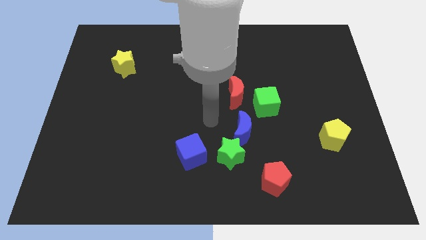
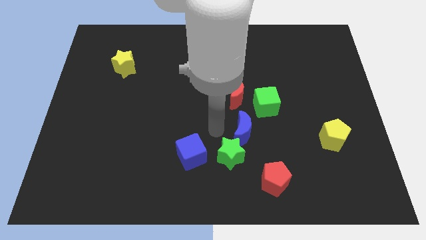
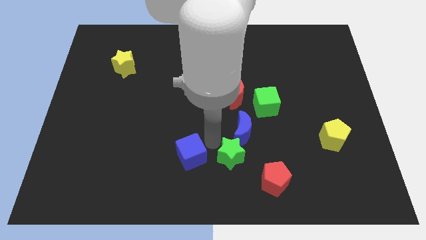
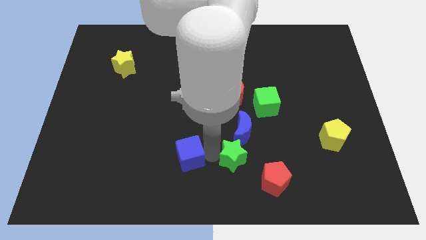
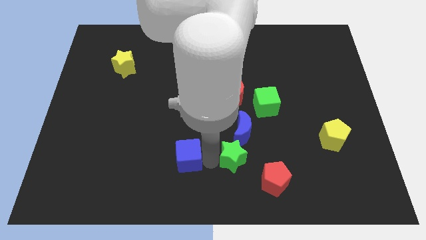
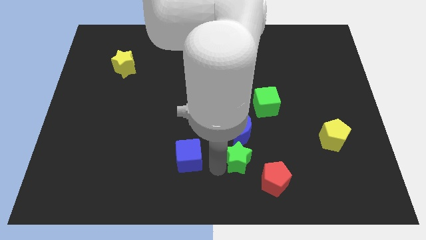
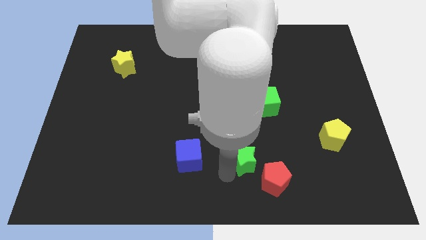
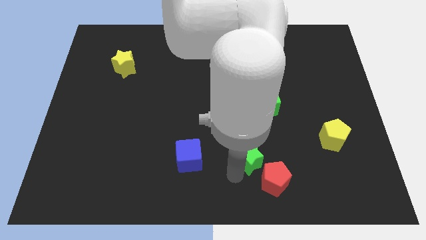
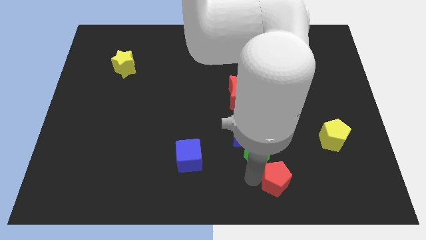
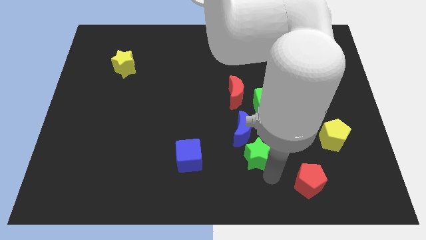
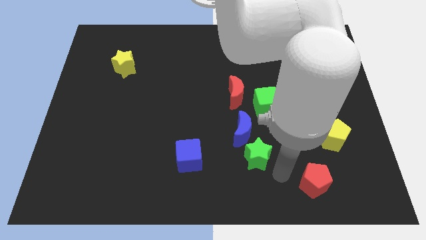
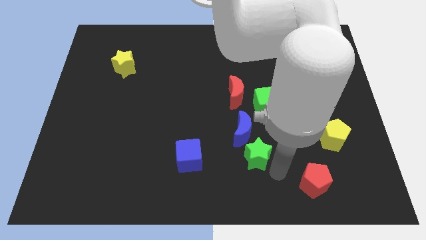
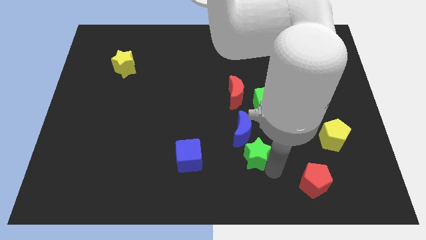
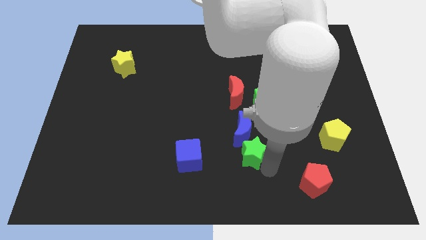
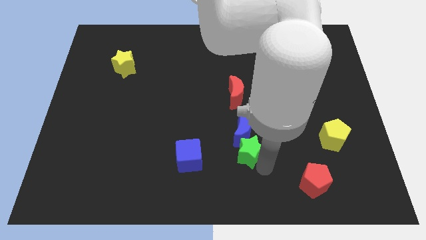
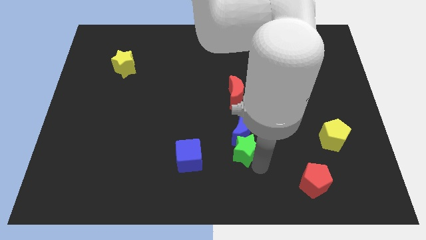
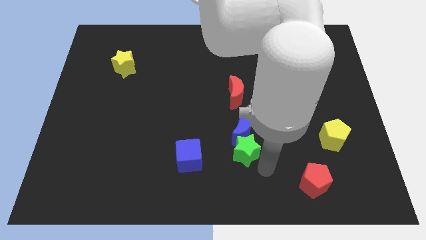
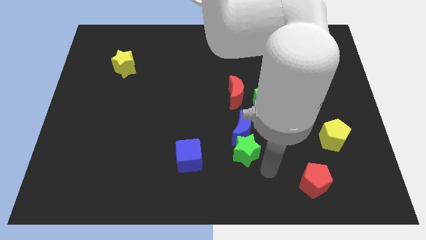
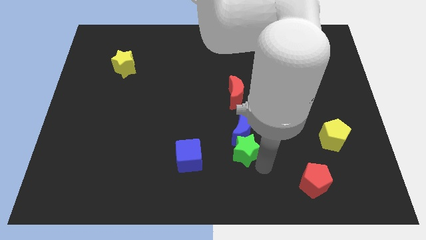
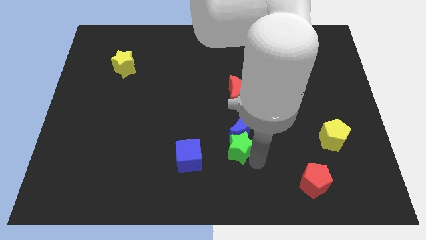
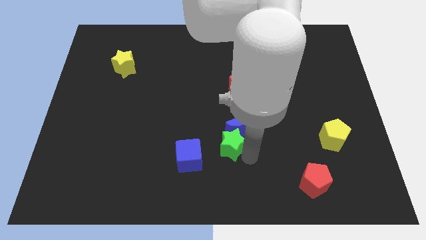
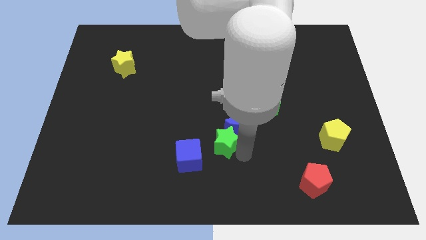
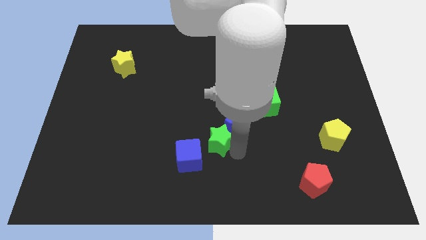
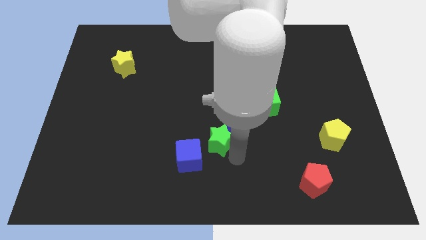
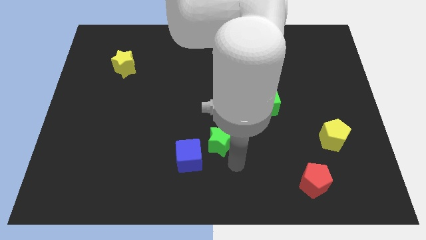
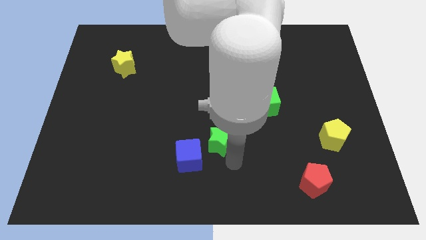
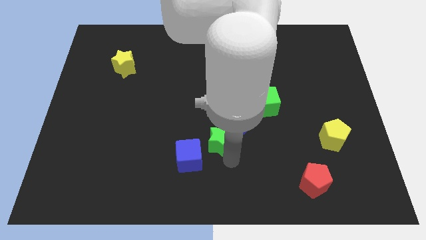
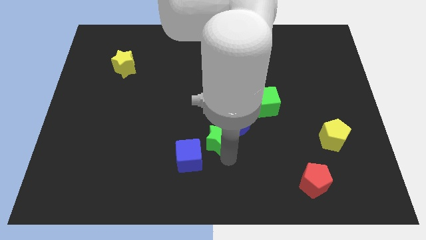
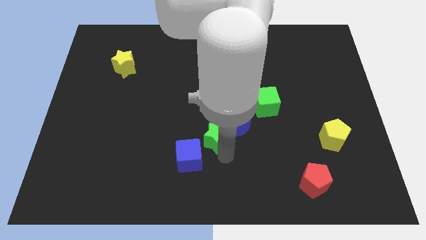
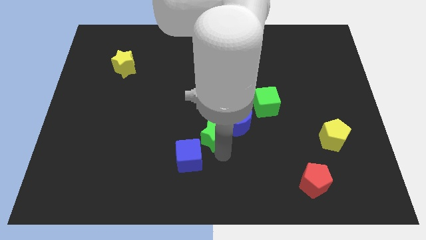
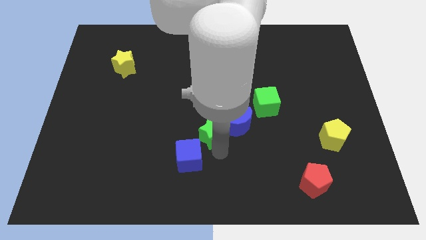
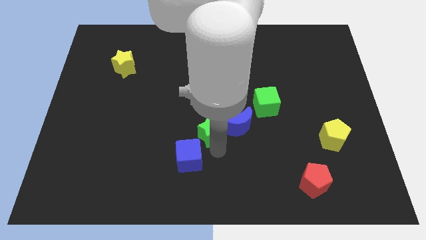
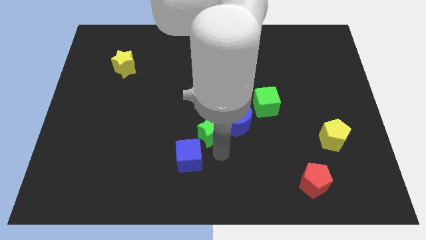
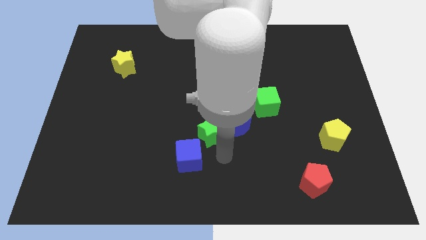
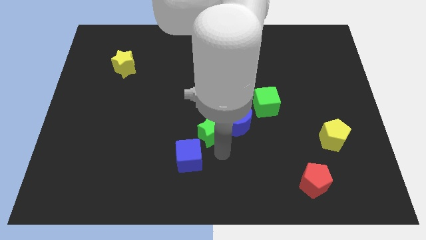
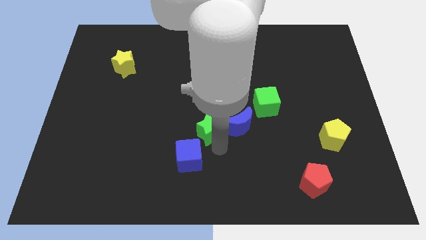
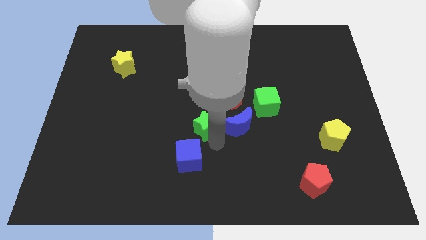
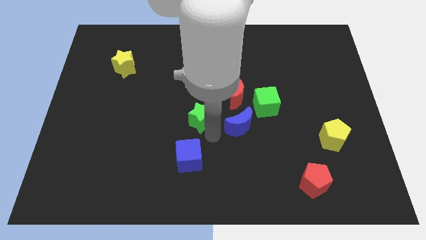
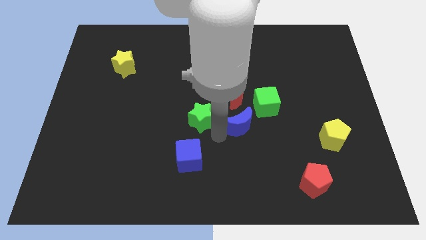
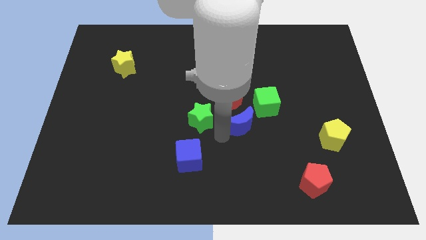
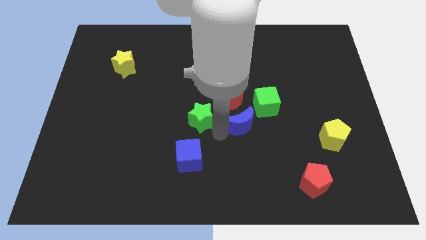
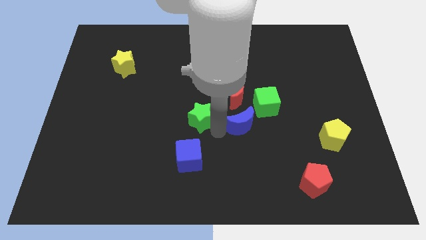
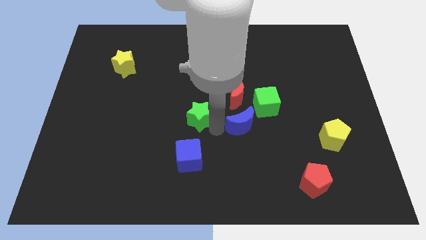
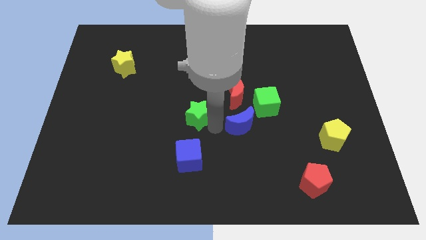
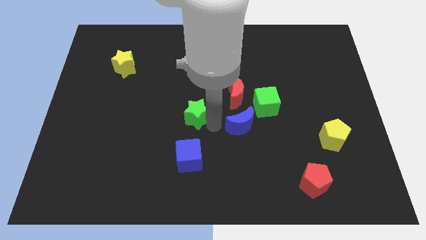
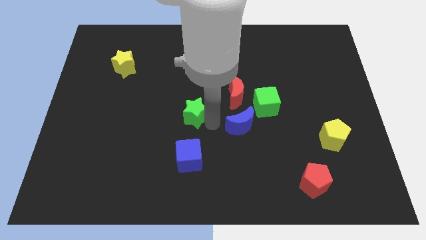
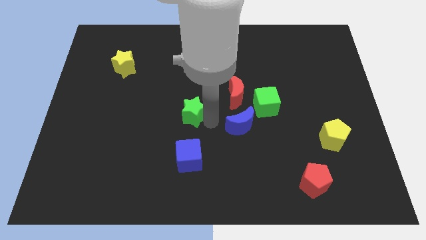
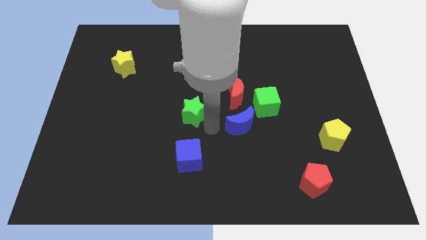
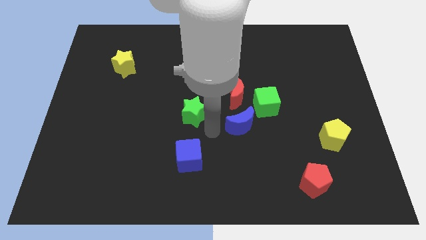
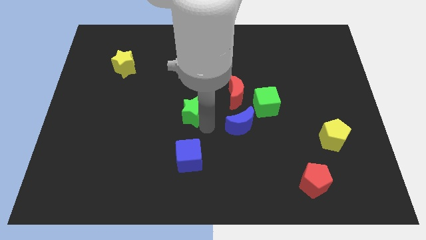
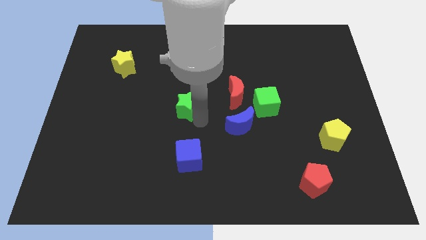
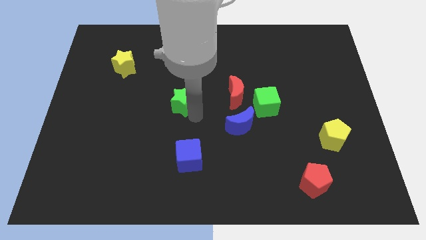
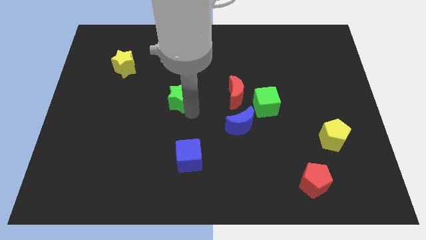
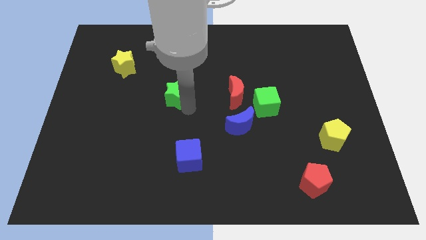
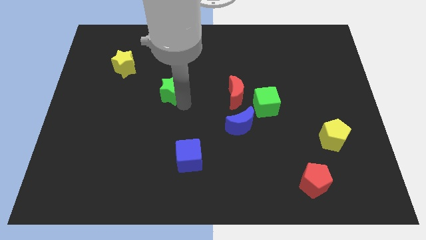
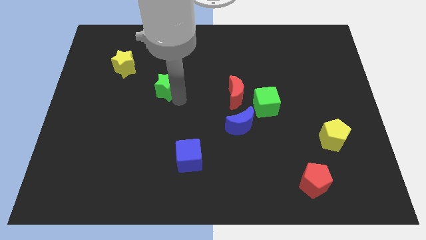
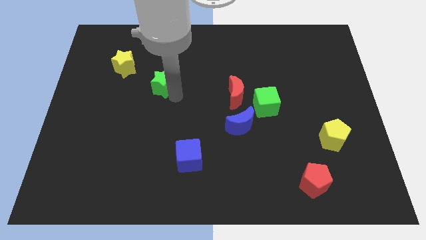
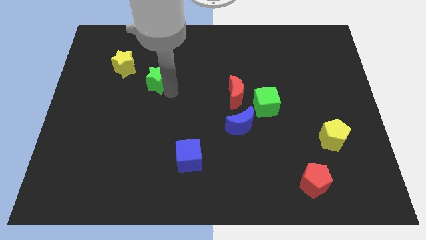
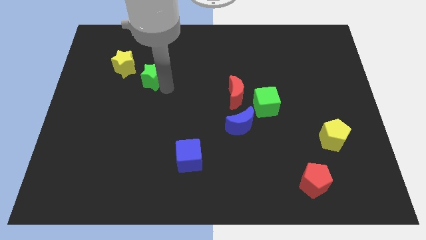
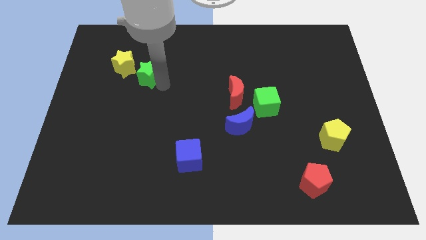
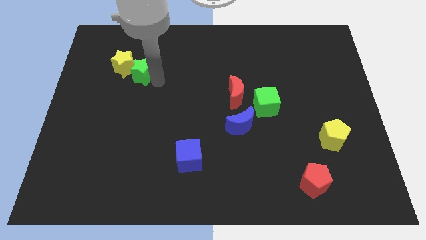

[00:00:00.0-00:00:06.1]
move the green star towards the yellow star

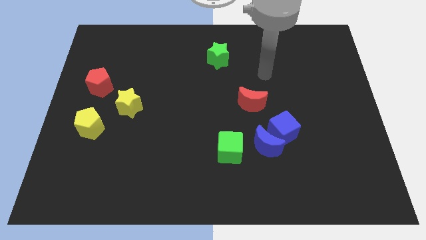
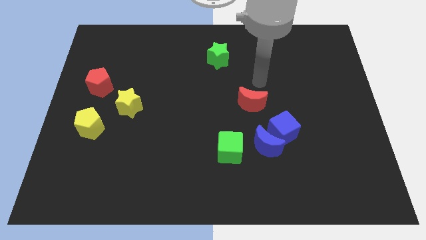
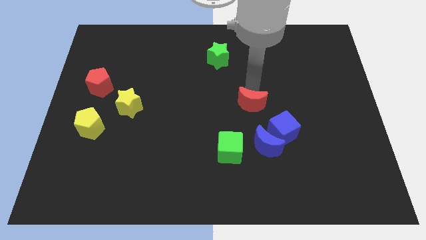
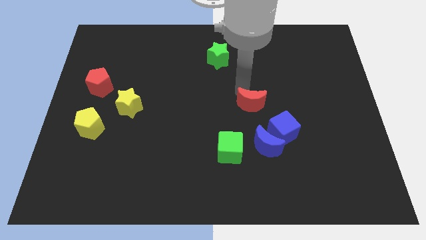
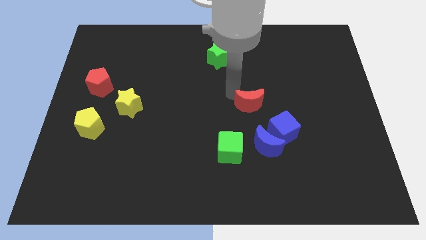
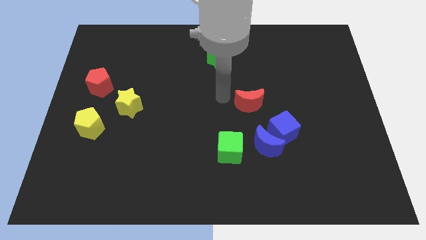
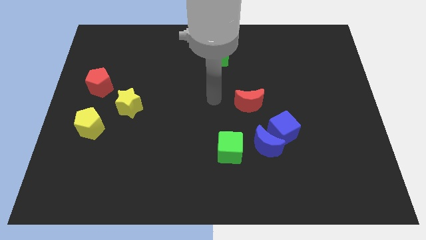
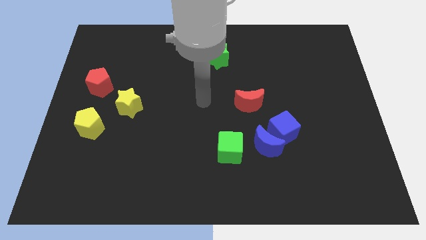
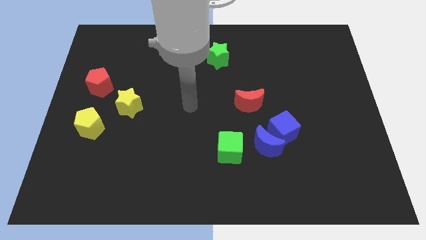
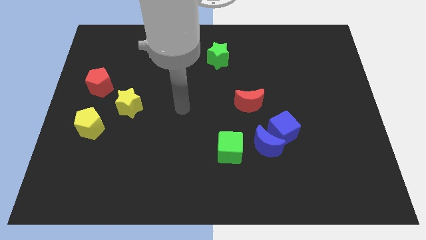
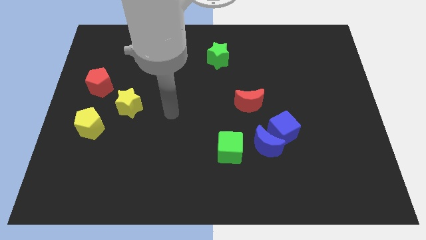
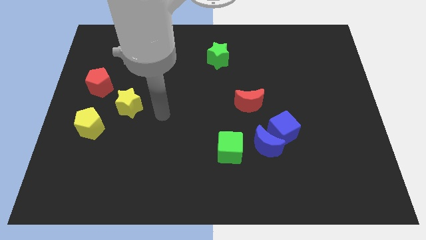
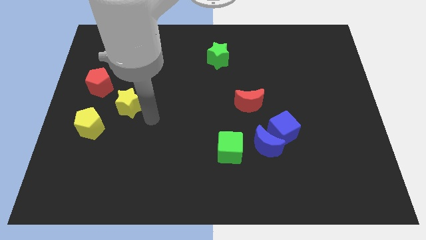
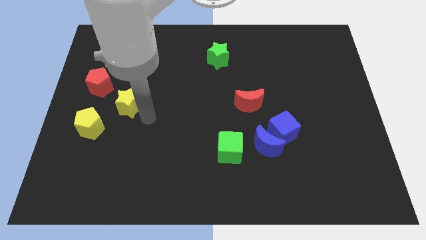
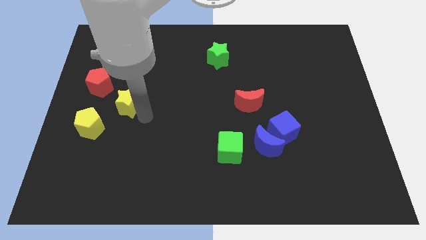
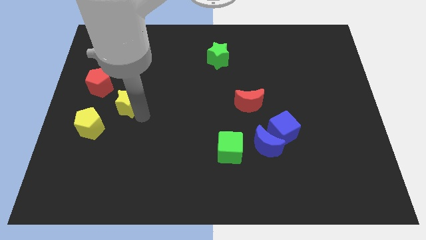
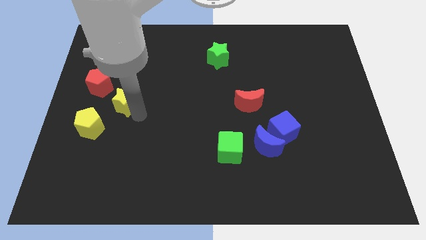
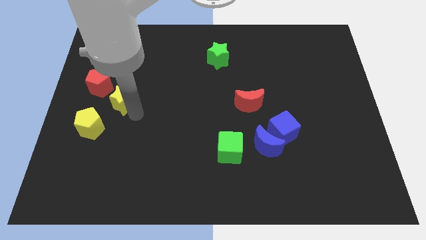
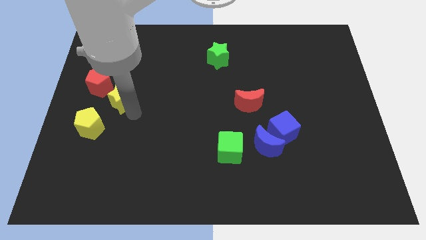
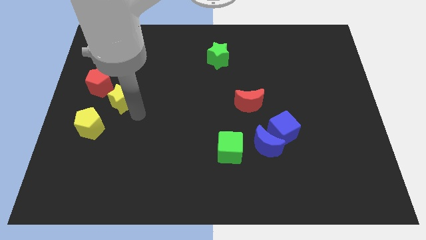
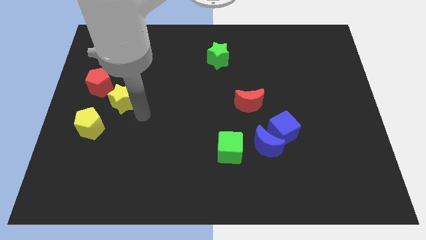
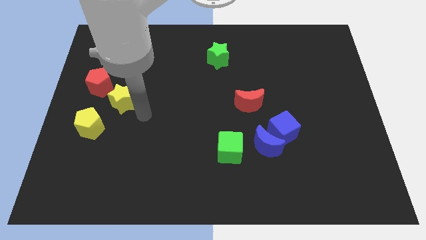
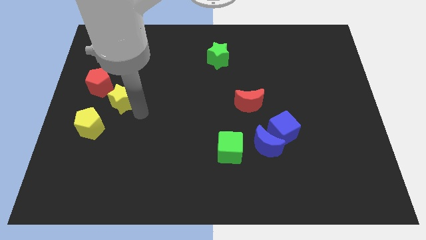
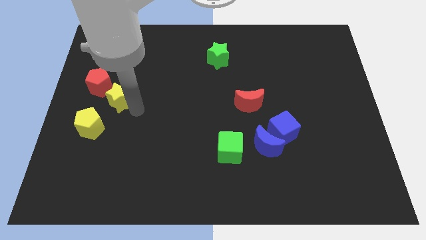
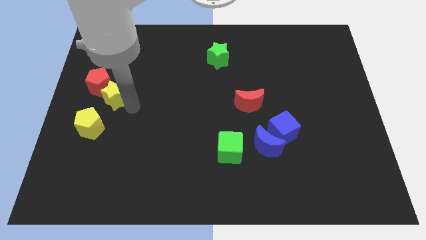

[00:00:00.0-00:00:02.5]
push the yellow star close to the red pentagon
